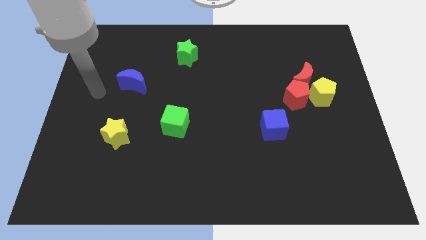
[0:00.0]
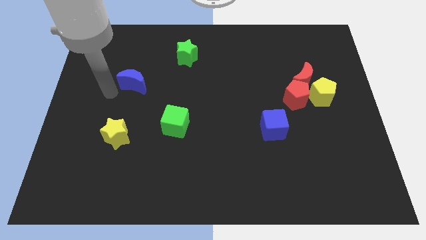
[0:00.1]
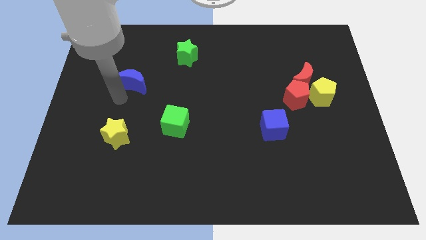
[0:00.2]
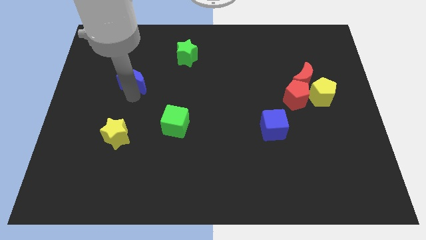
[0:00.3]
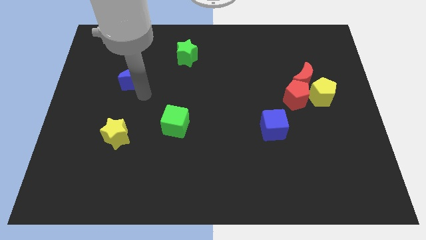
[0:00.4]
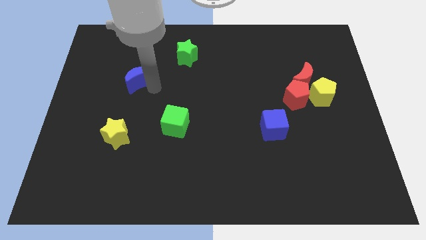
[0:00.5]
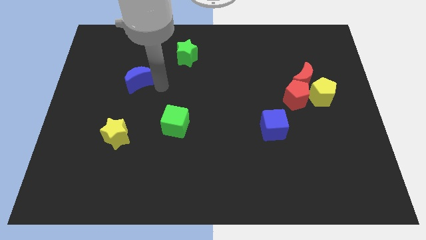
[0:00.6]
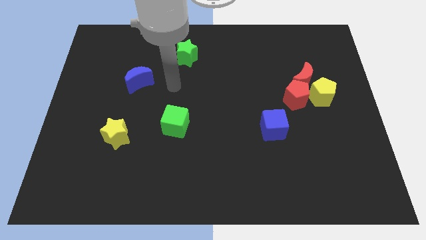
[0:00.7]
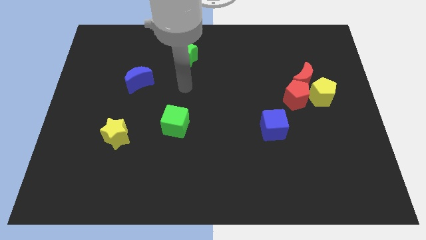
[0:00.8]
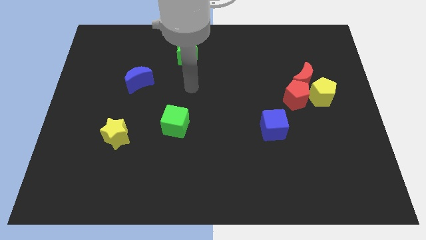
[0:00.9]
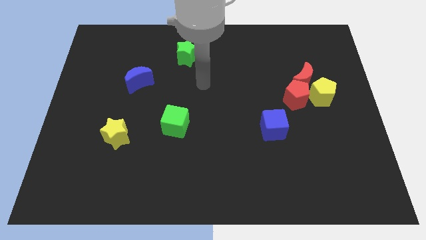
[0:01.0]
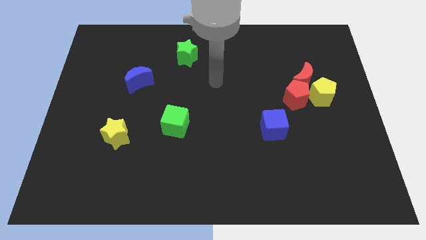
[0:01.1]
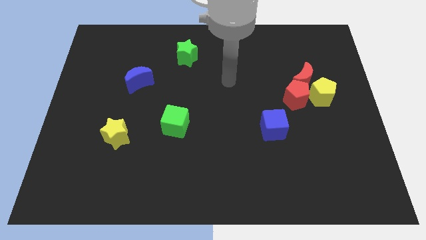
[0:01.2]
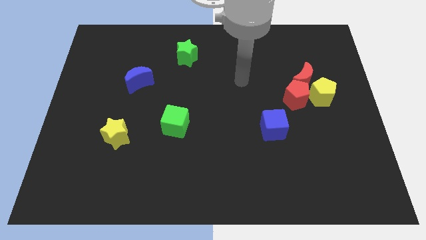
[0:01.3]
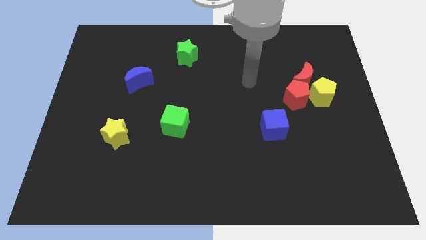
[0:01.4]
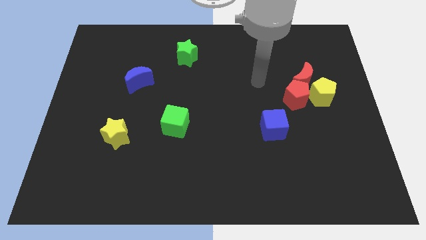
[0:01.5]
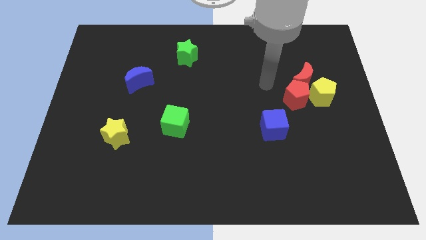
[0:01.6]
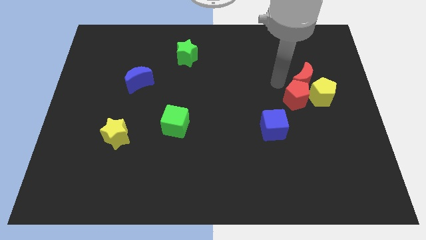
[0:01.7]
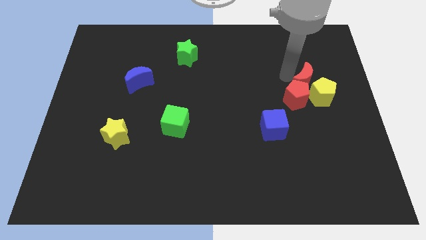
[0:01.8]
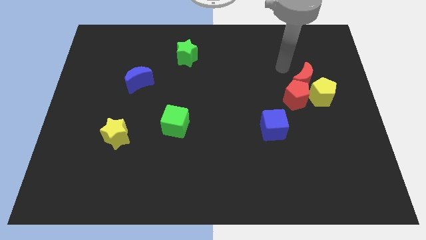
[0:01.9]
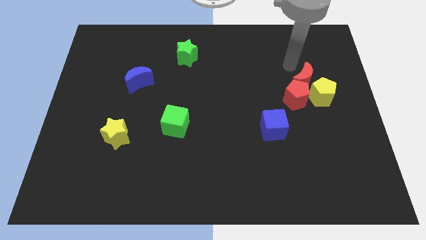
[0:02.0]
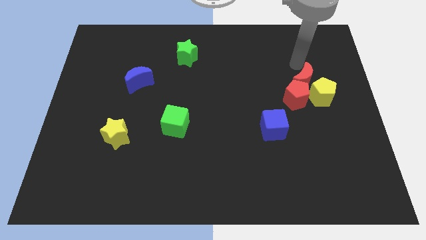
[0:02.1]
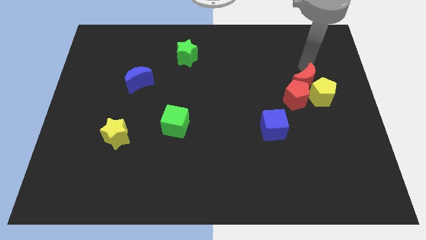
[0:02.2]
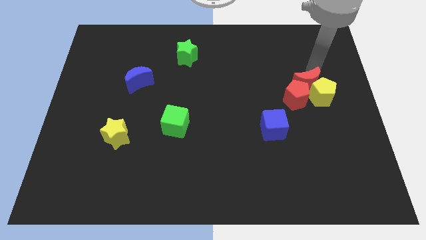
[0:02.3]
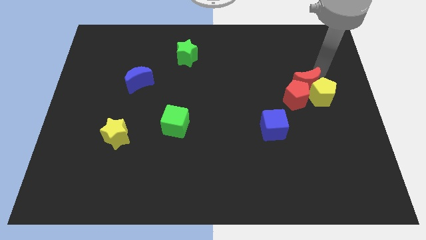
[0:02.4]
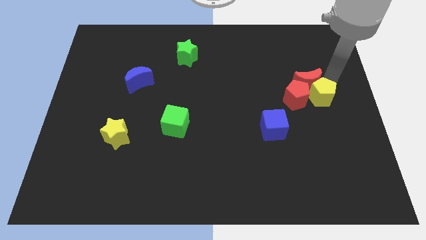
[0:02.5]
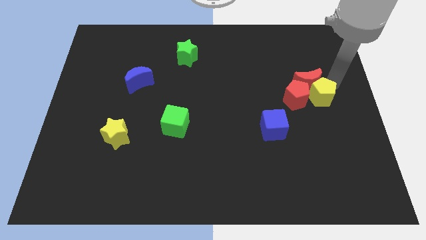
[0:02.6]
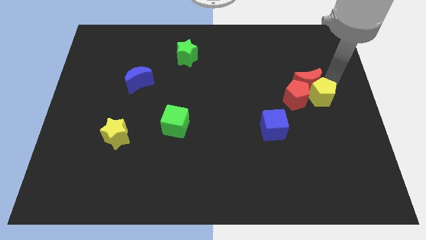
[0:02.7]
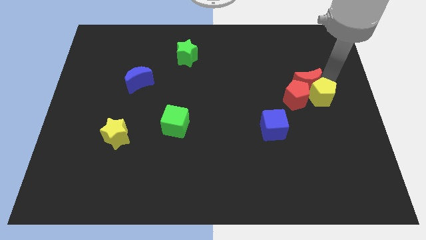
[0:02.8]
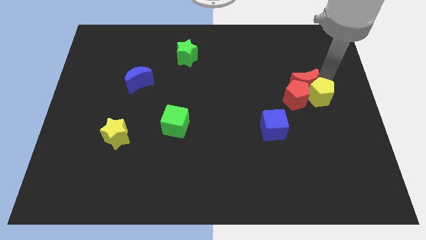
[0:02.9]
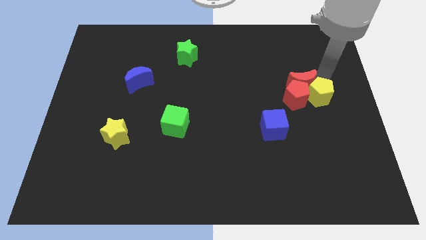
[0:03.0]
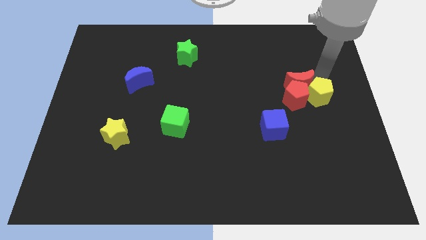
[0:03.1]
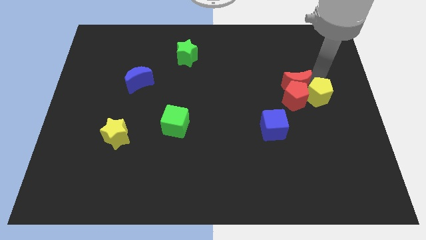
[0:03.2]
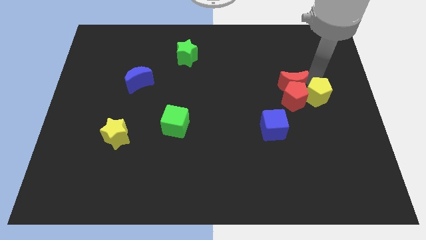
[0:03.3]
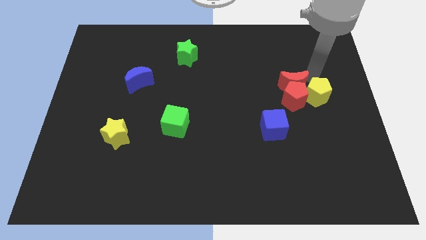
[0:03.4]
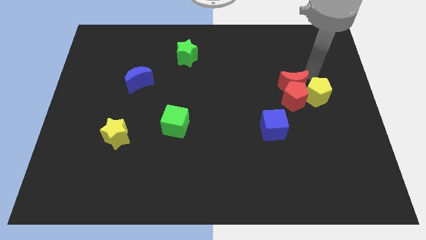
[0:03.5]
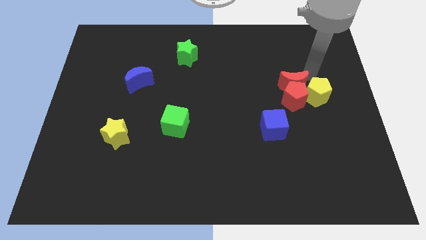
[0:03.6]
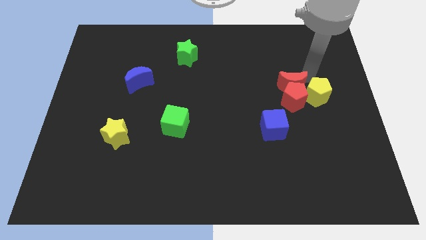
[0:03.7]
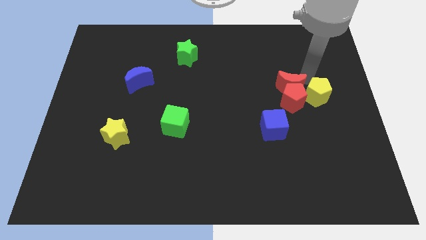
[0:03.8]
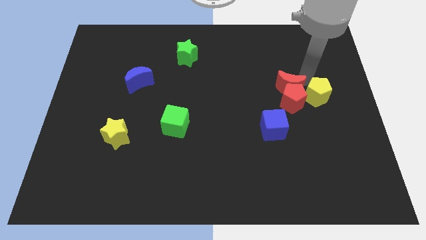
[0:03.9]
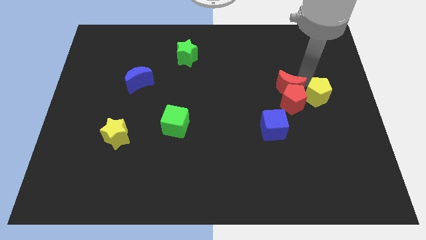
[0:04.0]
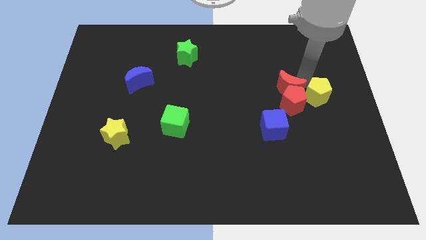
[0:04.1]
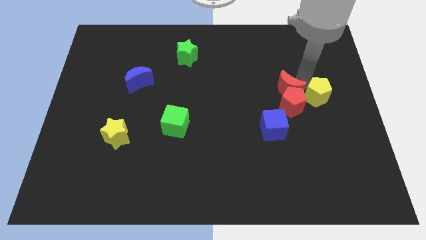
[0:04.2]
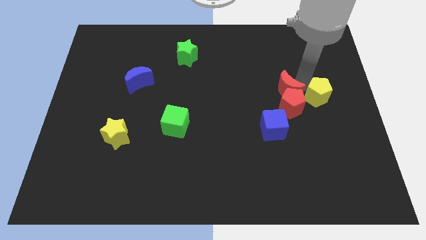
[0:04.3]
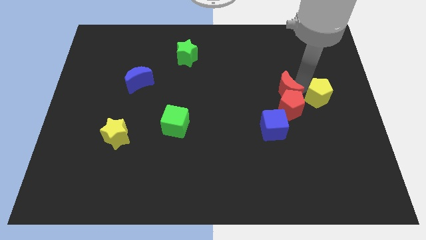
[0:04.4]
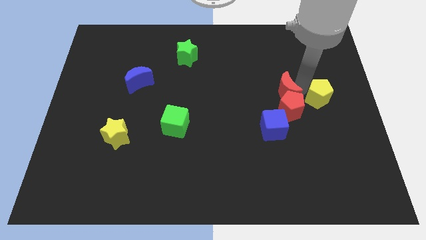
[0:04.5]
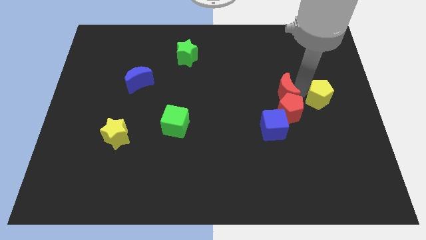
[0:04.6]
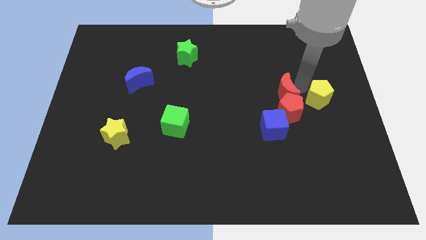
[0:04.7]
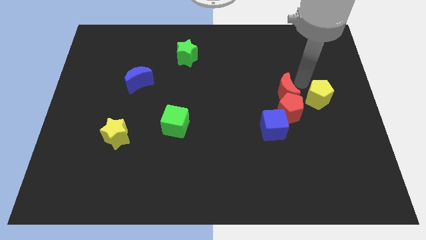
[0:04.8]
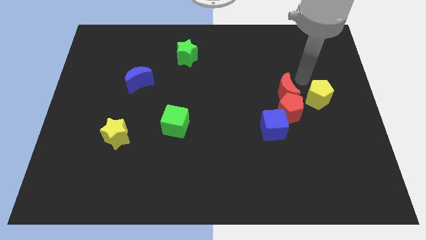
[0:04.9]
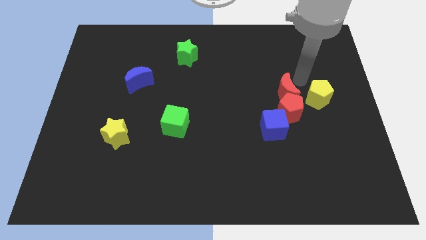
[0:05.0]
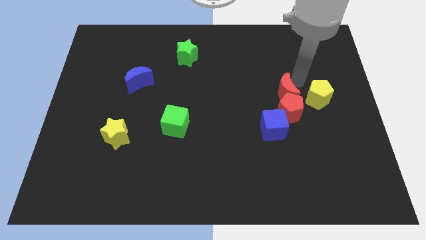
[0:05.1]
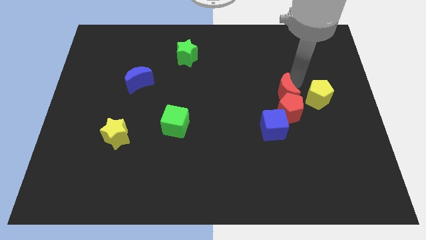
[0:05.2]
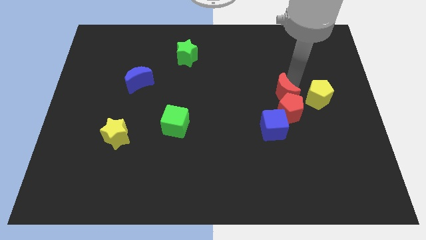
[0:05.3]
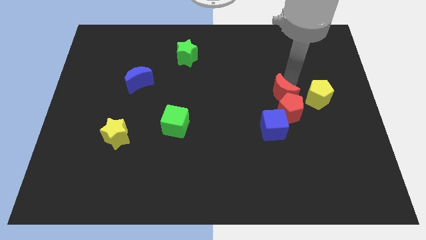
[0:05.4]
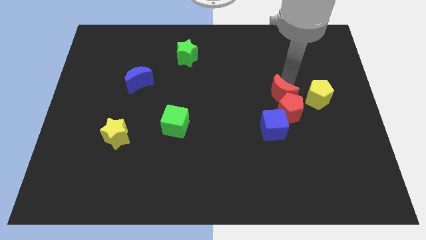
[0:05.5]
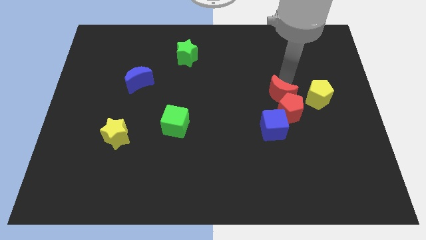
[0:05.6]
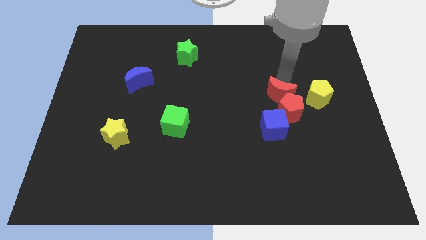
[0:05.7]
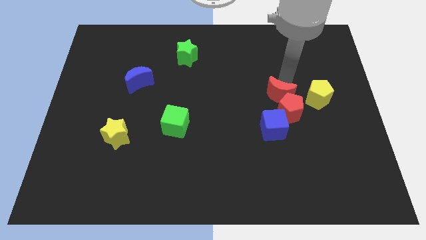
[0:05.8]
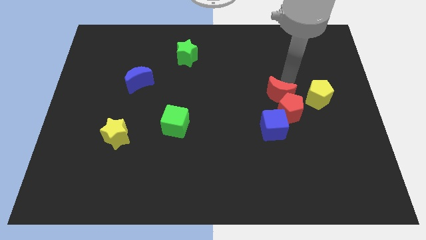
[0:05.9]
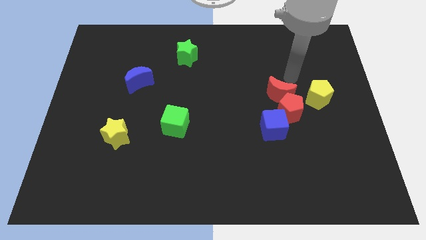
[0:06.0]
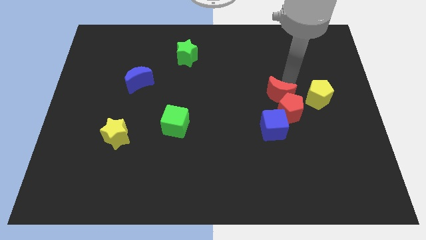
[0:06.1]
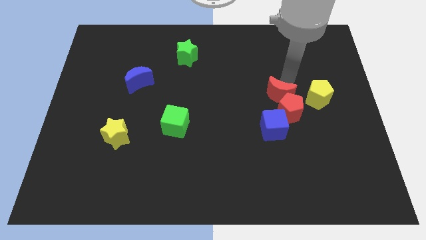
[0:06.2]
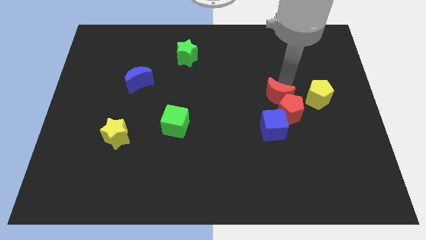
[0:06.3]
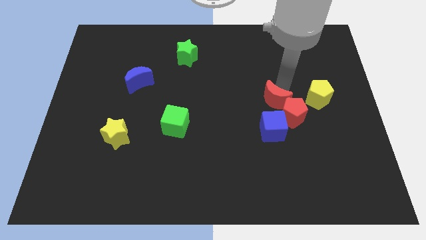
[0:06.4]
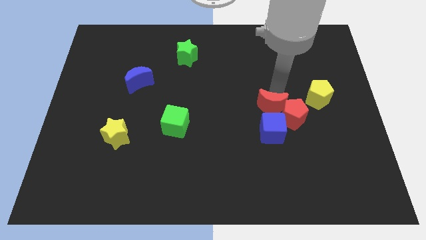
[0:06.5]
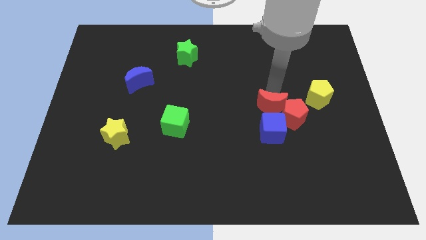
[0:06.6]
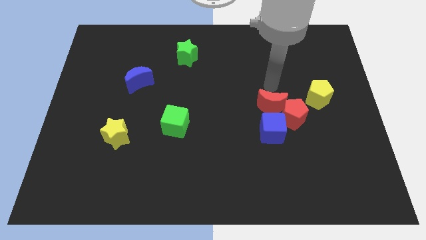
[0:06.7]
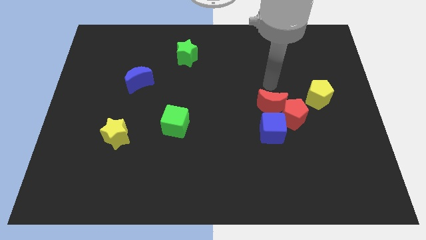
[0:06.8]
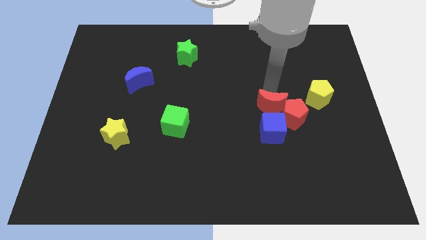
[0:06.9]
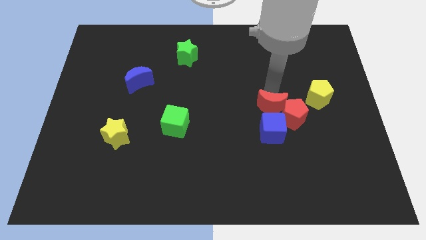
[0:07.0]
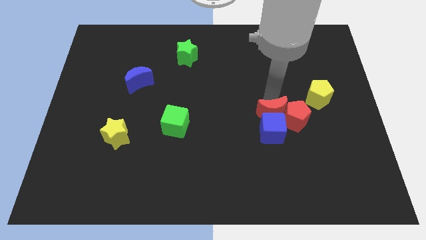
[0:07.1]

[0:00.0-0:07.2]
put the red moon towards the blue cube

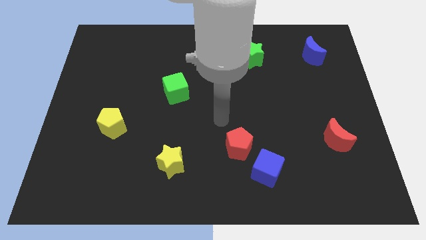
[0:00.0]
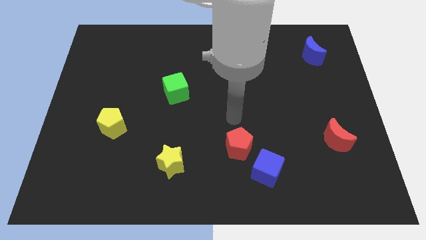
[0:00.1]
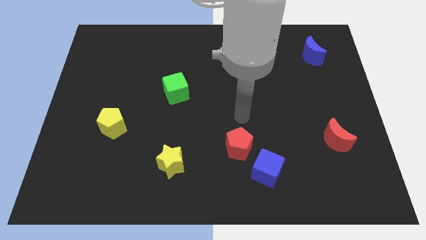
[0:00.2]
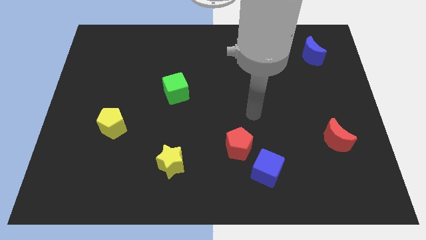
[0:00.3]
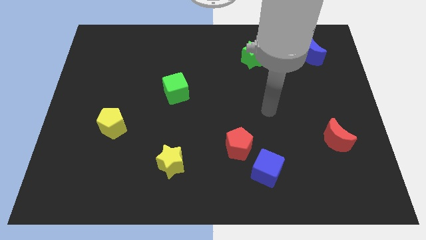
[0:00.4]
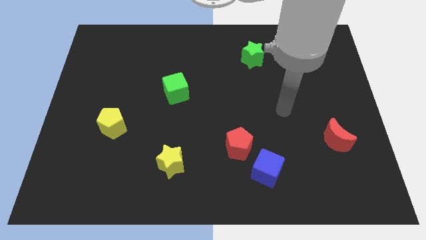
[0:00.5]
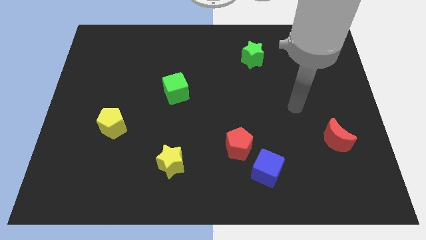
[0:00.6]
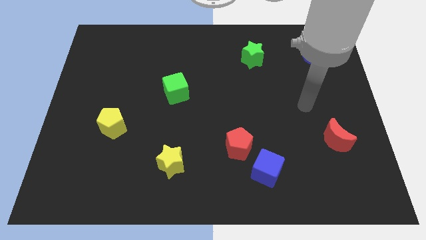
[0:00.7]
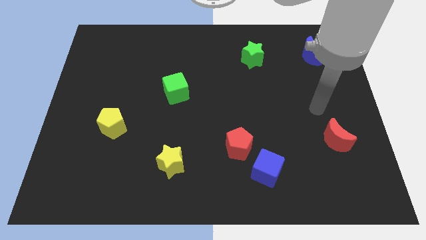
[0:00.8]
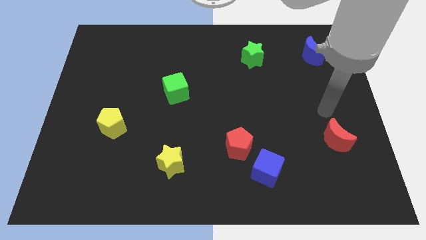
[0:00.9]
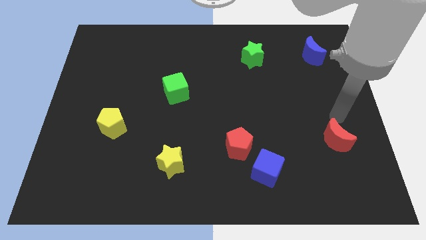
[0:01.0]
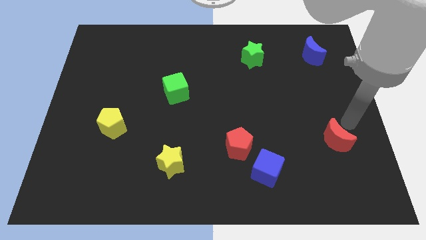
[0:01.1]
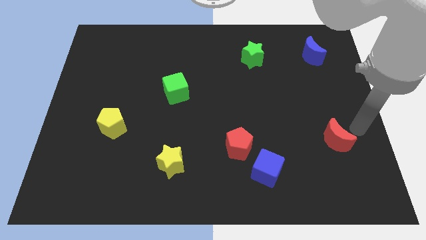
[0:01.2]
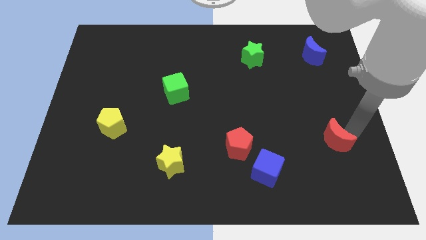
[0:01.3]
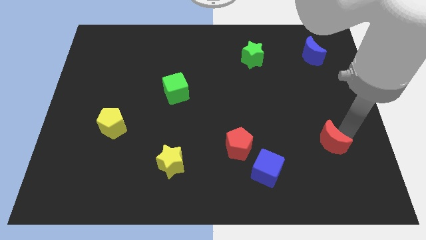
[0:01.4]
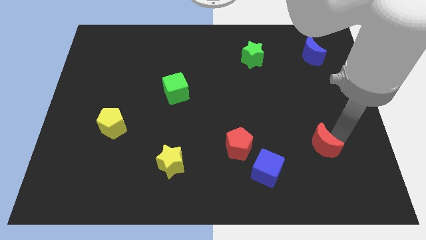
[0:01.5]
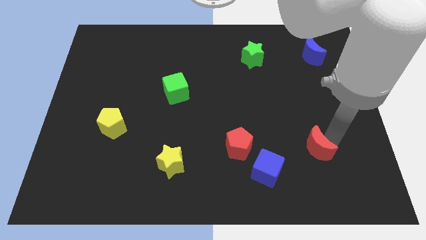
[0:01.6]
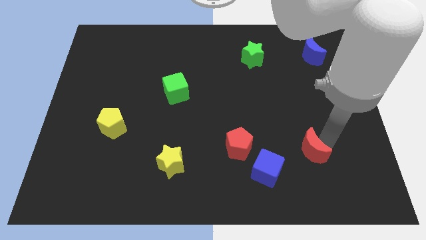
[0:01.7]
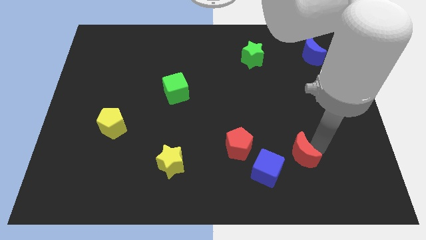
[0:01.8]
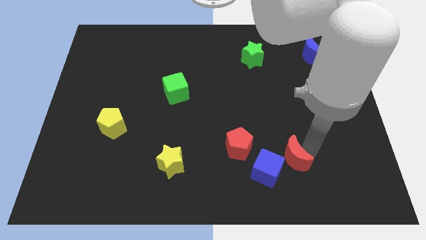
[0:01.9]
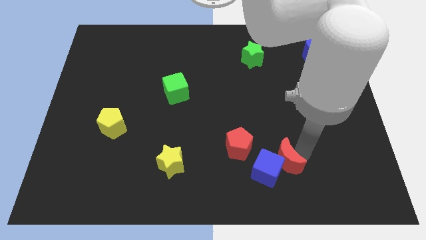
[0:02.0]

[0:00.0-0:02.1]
push the red moon towards the blue cube
